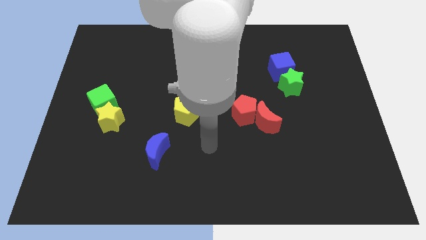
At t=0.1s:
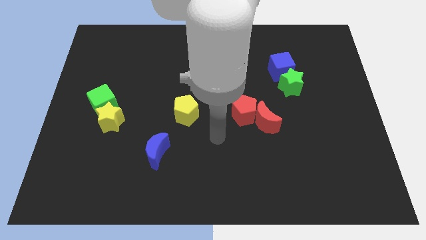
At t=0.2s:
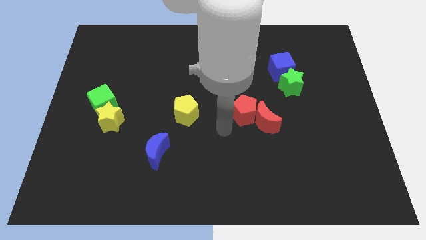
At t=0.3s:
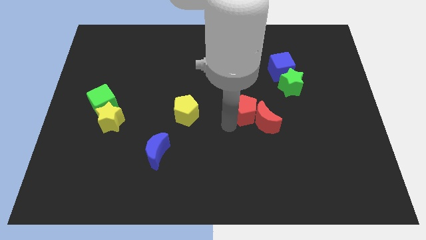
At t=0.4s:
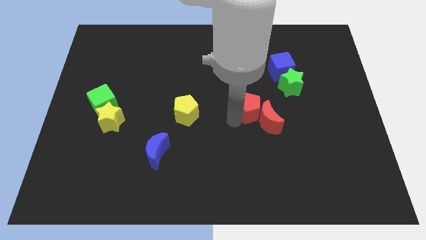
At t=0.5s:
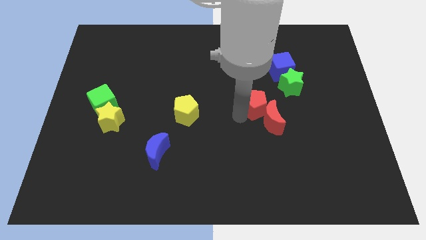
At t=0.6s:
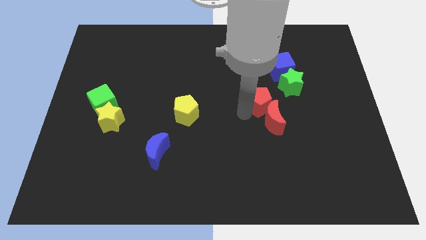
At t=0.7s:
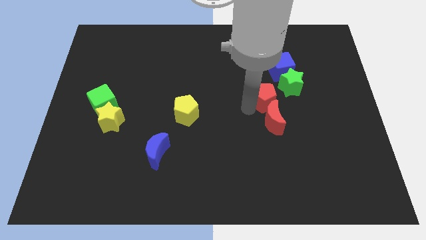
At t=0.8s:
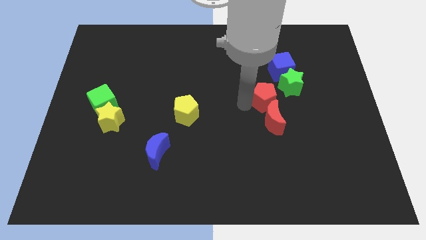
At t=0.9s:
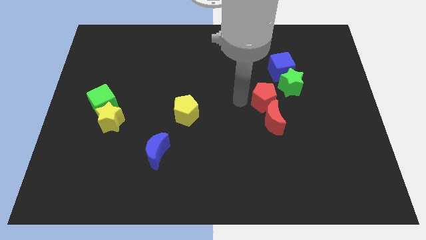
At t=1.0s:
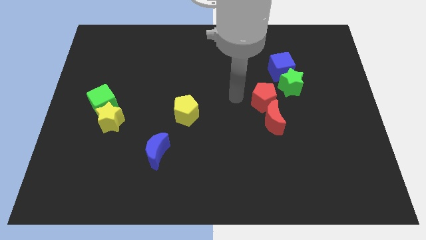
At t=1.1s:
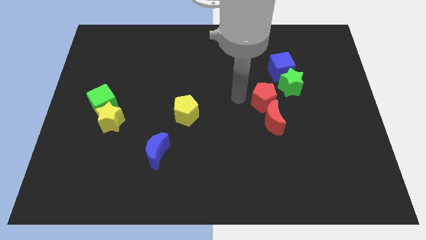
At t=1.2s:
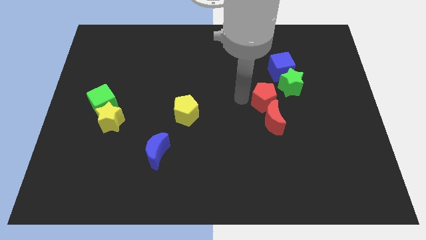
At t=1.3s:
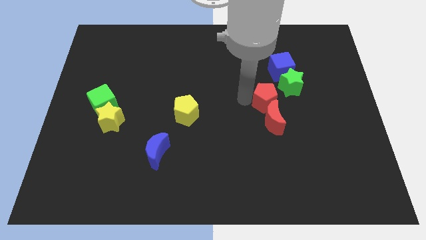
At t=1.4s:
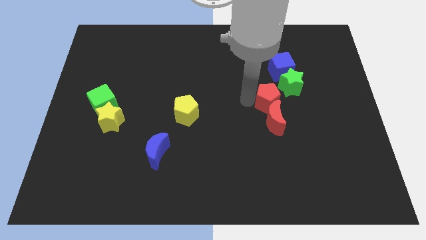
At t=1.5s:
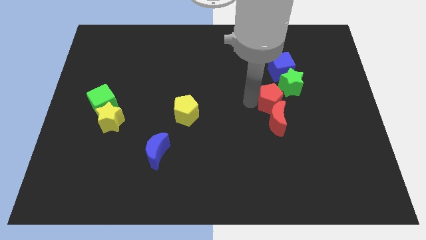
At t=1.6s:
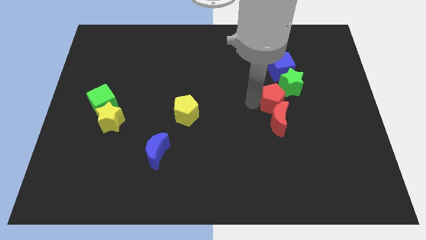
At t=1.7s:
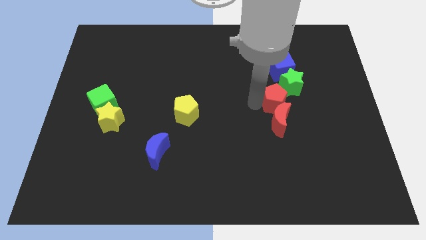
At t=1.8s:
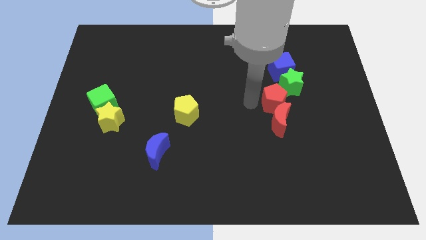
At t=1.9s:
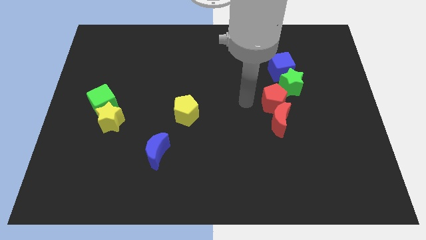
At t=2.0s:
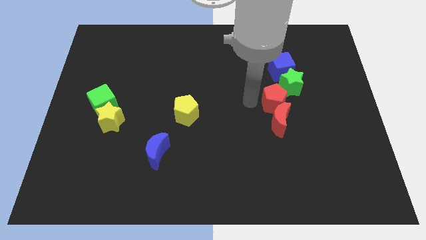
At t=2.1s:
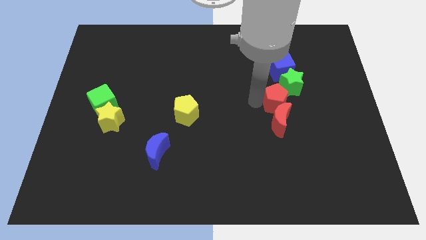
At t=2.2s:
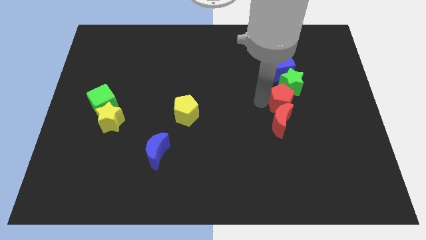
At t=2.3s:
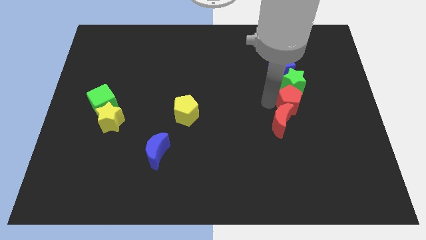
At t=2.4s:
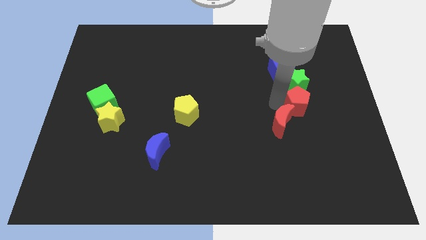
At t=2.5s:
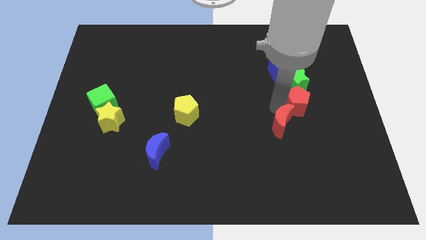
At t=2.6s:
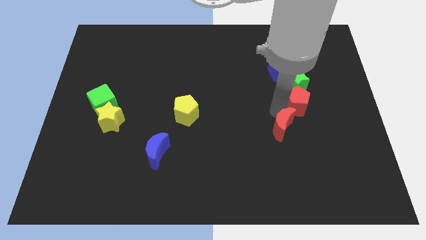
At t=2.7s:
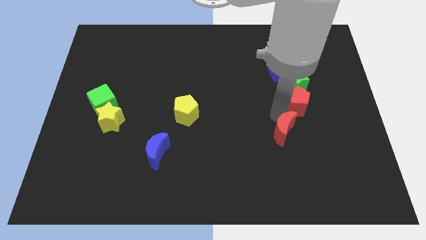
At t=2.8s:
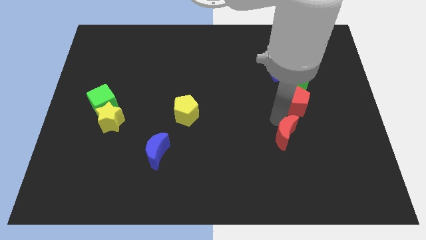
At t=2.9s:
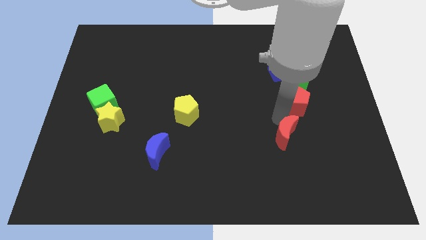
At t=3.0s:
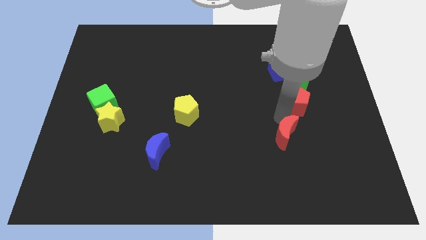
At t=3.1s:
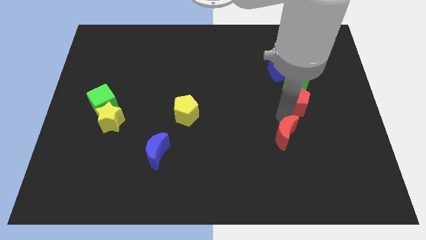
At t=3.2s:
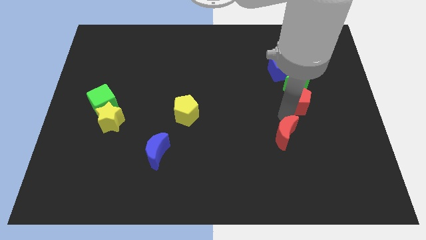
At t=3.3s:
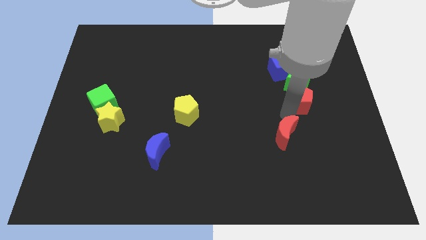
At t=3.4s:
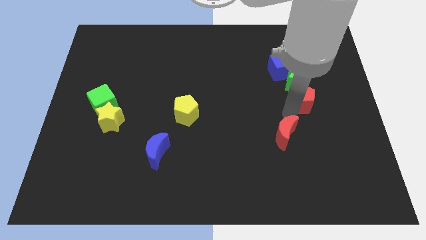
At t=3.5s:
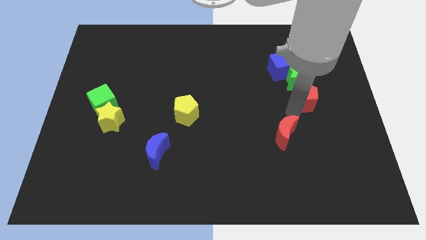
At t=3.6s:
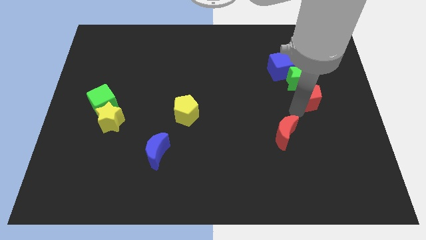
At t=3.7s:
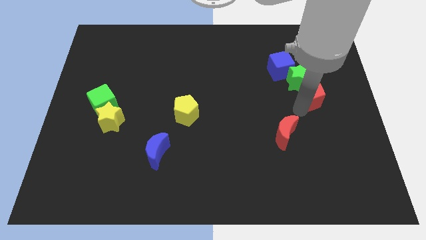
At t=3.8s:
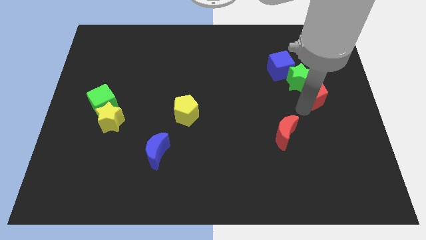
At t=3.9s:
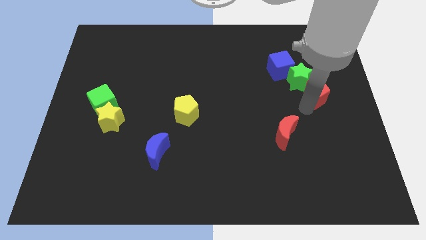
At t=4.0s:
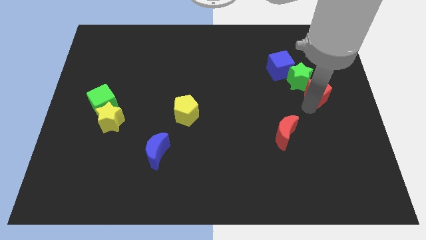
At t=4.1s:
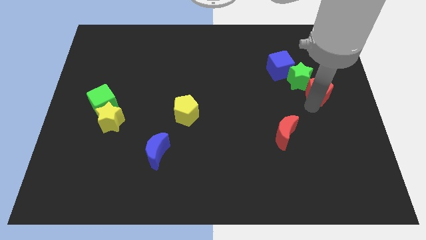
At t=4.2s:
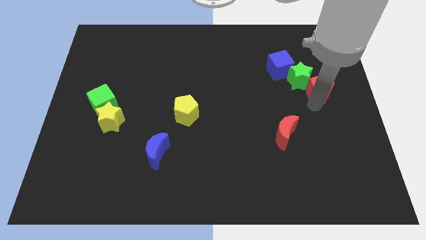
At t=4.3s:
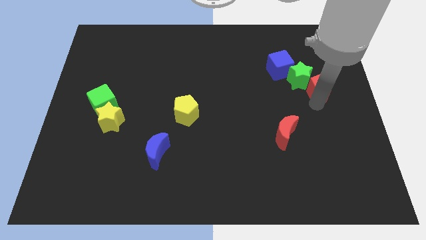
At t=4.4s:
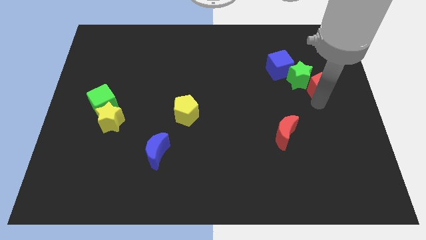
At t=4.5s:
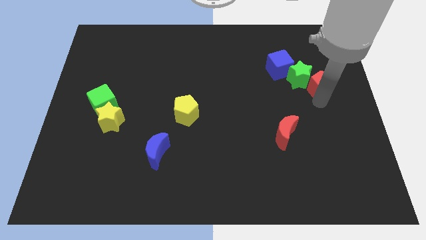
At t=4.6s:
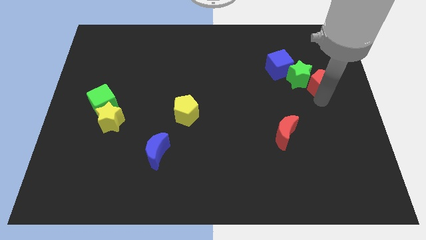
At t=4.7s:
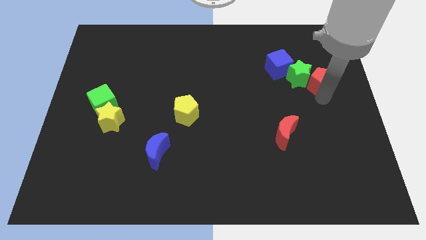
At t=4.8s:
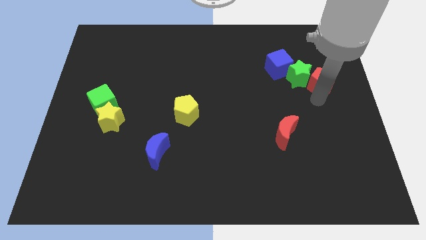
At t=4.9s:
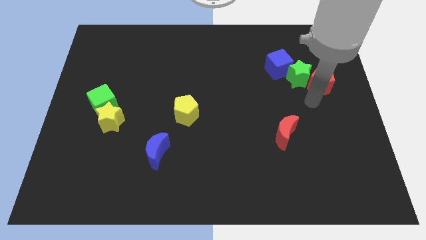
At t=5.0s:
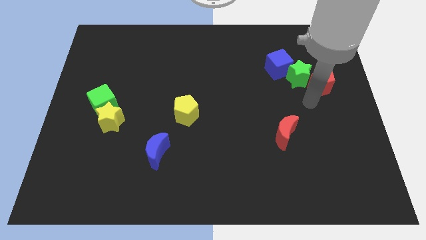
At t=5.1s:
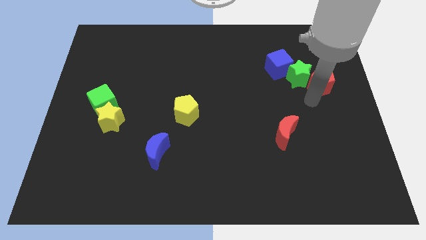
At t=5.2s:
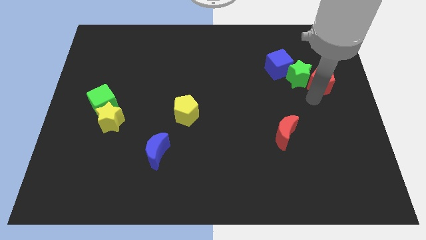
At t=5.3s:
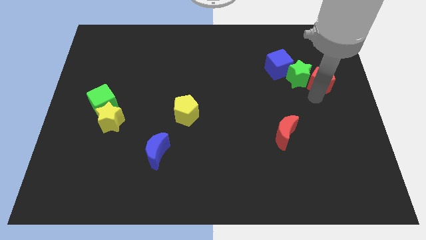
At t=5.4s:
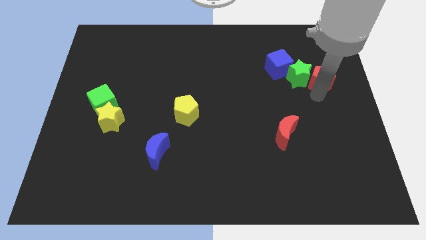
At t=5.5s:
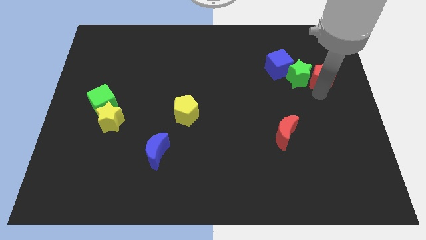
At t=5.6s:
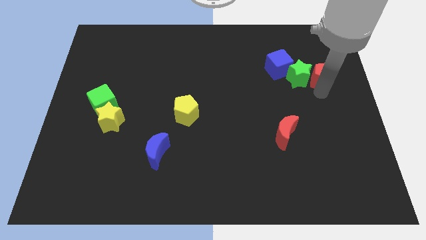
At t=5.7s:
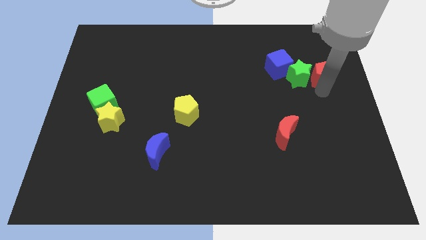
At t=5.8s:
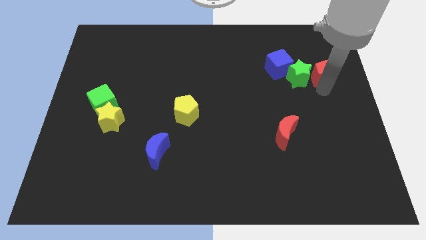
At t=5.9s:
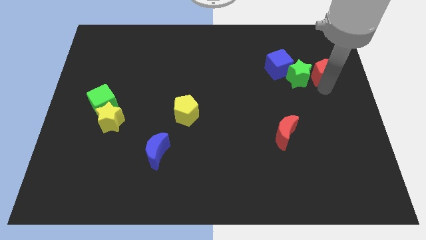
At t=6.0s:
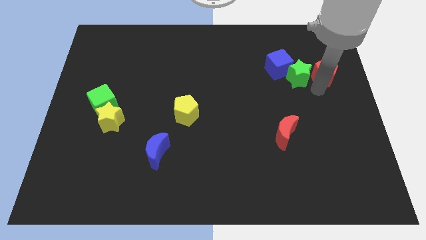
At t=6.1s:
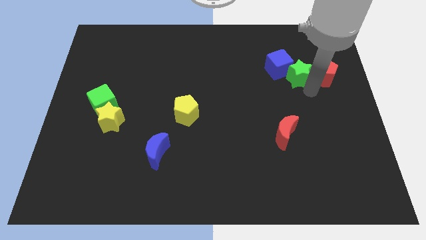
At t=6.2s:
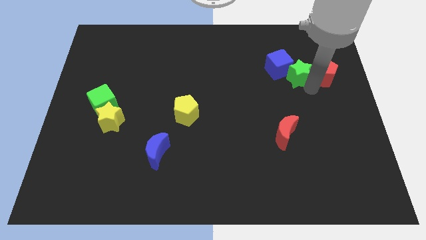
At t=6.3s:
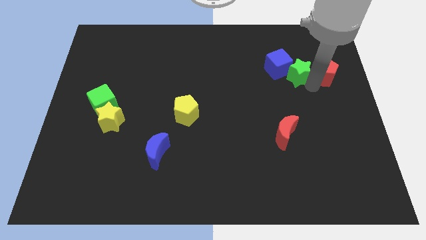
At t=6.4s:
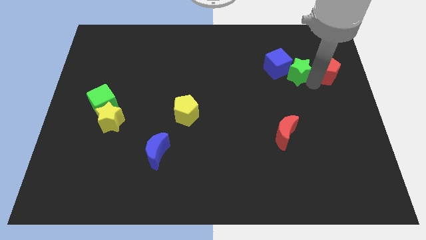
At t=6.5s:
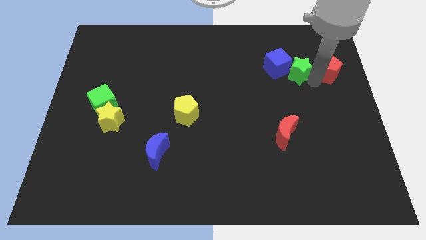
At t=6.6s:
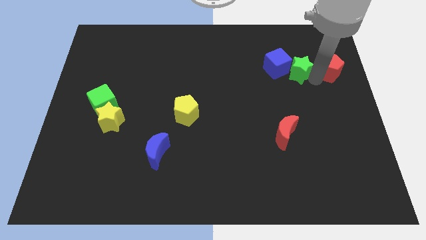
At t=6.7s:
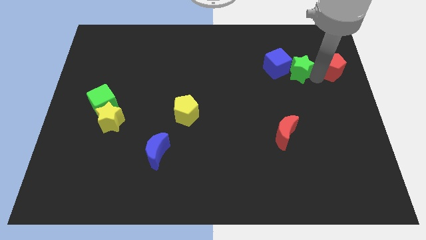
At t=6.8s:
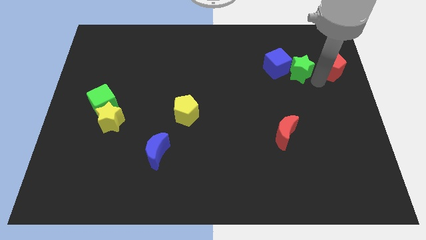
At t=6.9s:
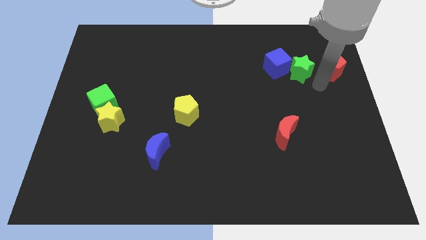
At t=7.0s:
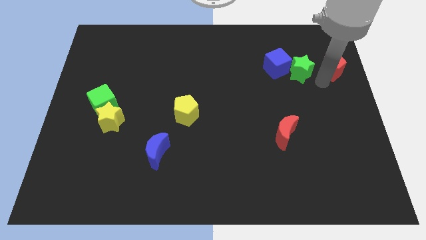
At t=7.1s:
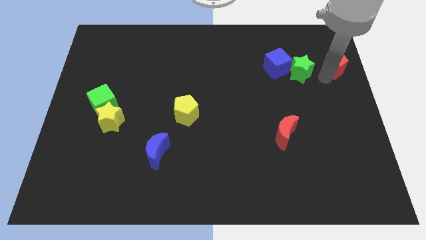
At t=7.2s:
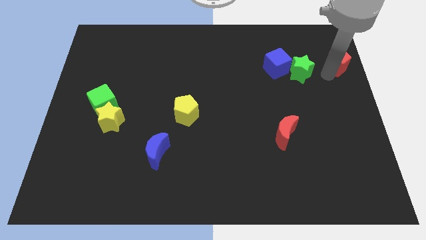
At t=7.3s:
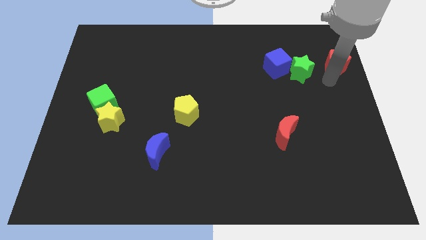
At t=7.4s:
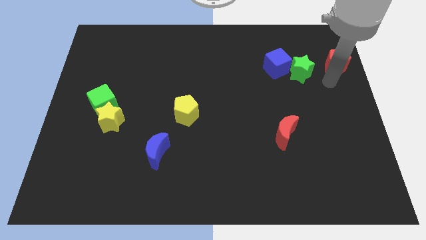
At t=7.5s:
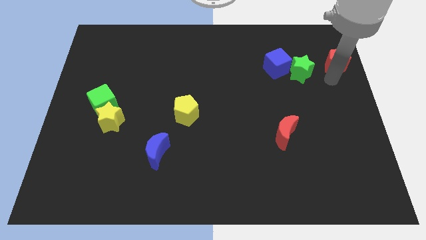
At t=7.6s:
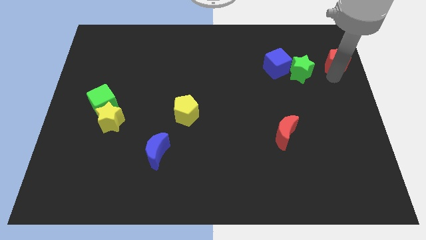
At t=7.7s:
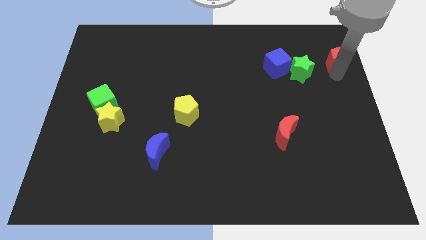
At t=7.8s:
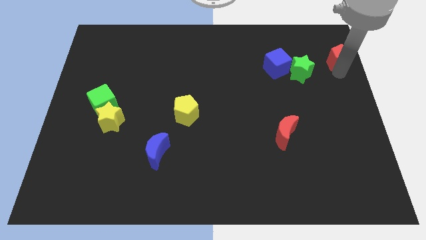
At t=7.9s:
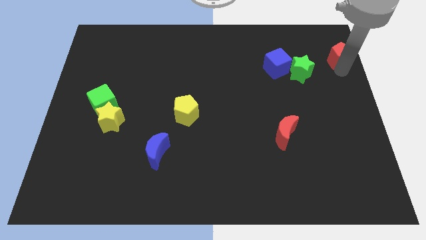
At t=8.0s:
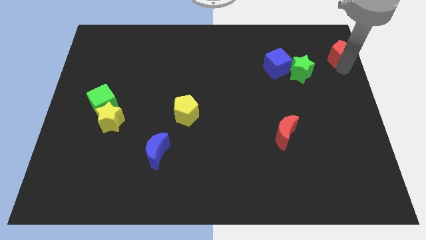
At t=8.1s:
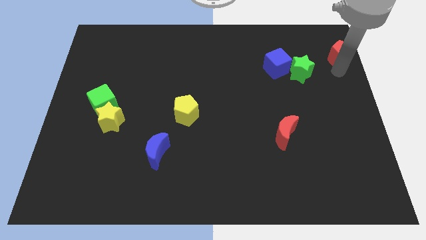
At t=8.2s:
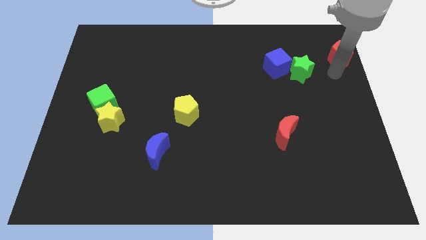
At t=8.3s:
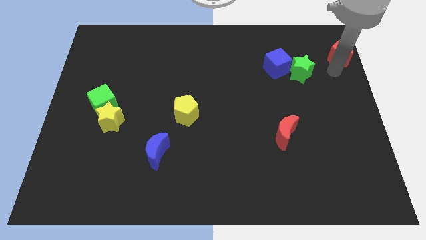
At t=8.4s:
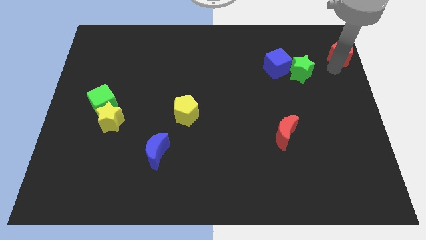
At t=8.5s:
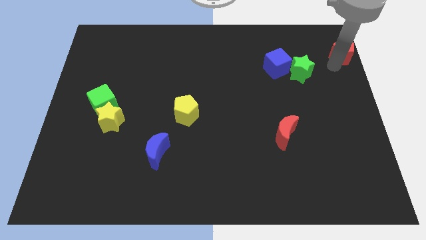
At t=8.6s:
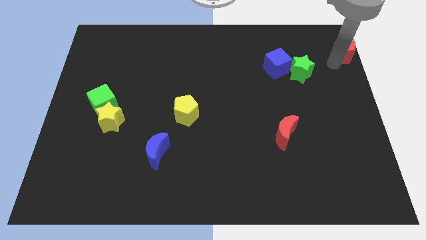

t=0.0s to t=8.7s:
push the red pentagon to the top right corner
